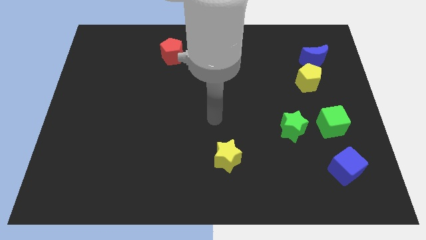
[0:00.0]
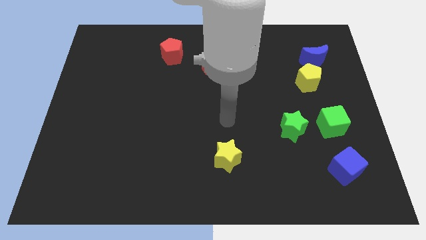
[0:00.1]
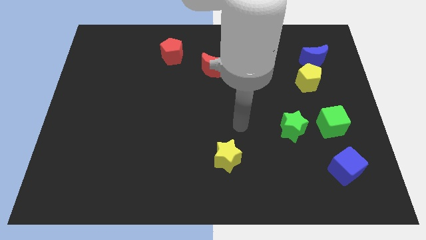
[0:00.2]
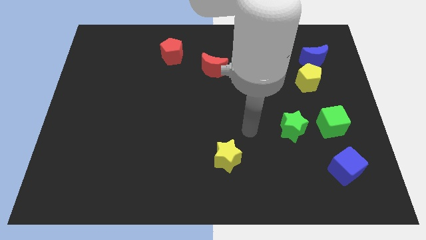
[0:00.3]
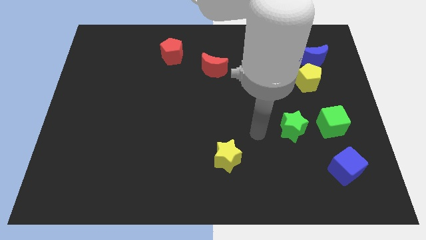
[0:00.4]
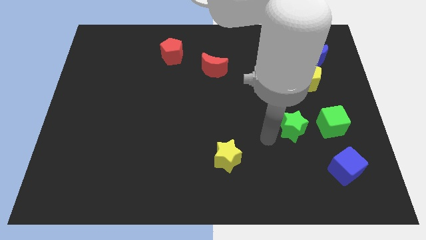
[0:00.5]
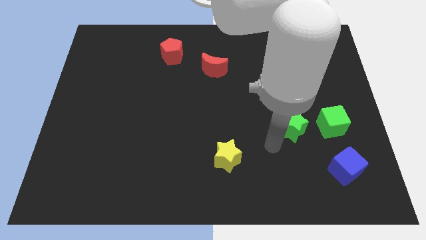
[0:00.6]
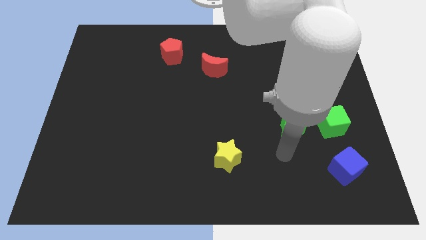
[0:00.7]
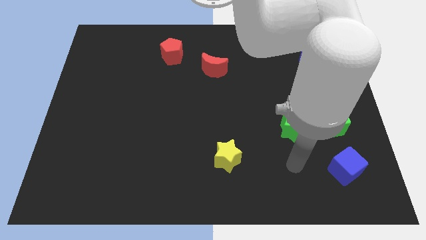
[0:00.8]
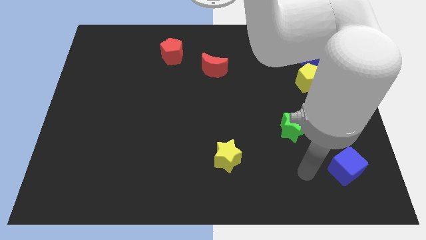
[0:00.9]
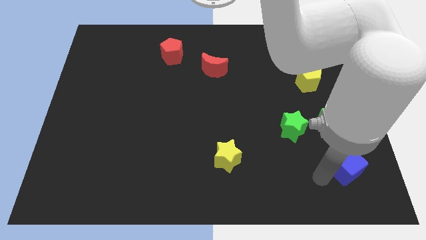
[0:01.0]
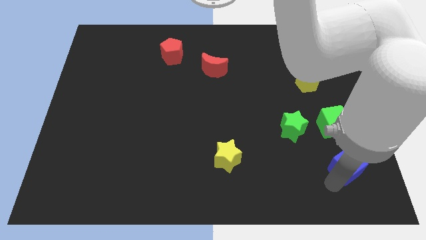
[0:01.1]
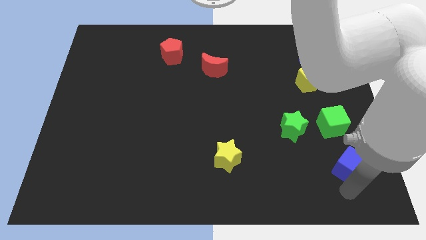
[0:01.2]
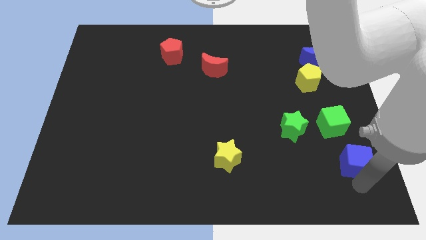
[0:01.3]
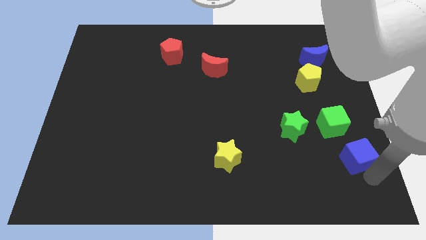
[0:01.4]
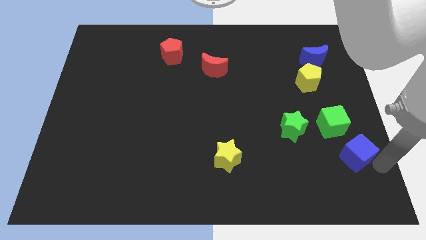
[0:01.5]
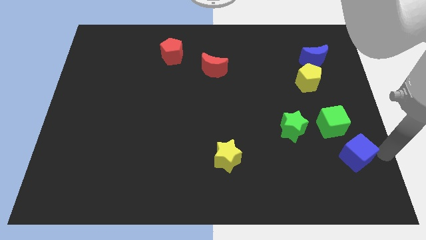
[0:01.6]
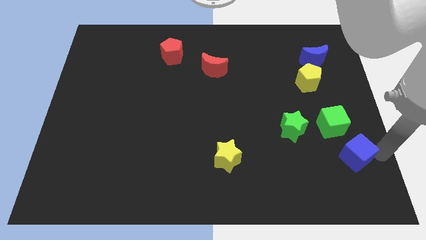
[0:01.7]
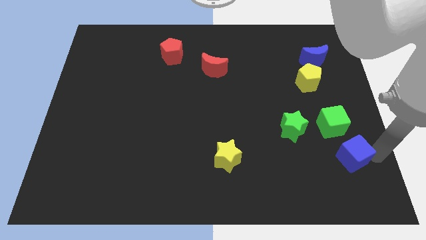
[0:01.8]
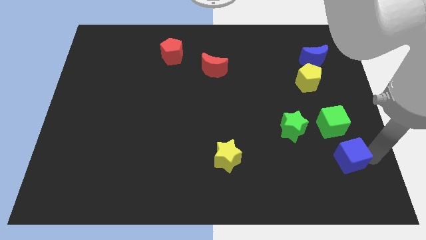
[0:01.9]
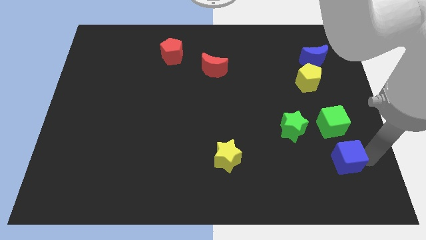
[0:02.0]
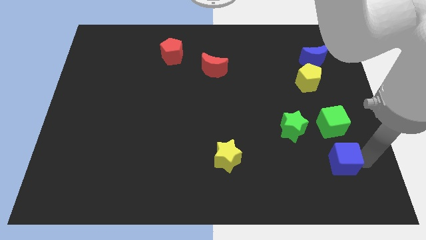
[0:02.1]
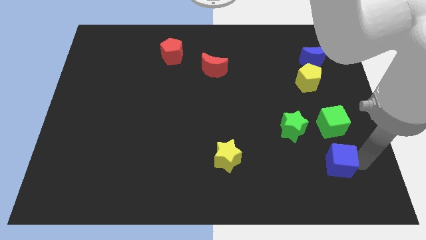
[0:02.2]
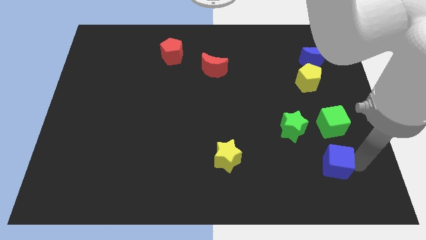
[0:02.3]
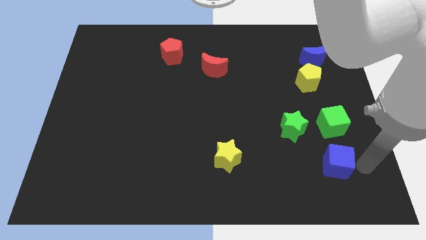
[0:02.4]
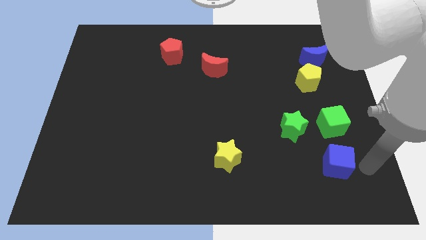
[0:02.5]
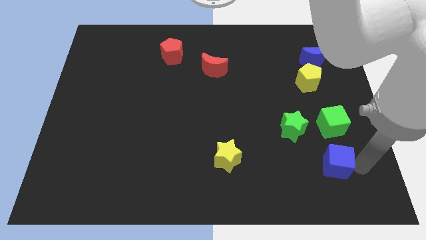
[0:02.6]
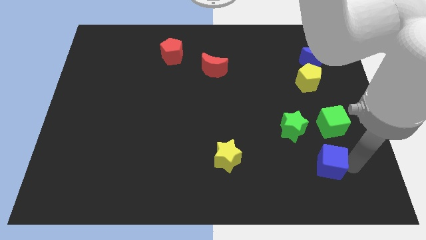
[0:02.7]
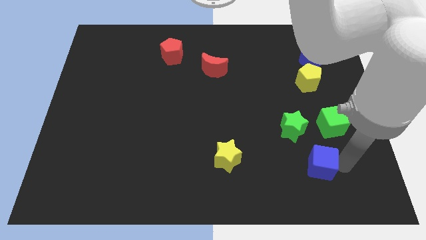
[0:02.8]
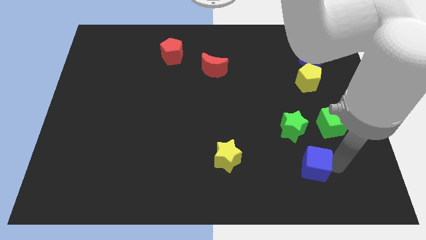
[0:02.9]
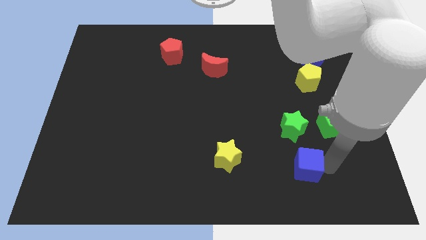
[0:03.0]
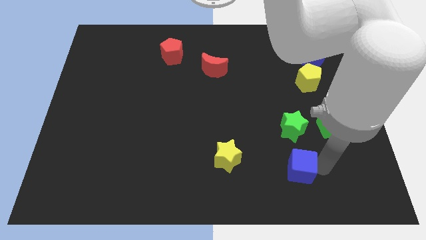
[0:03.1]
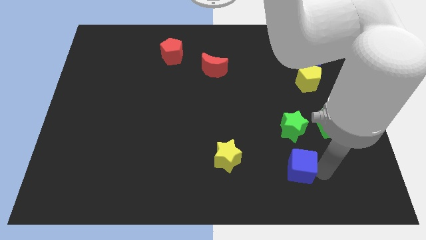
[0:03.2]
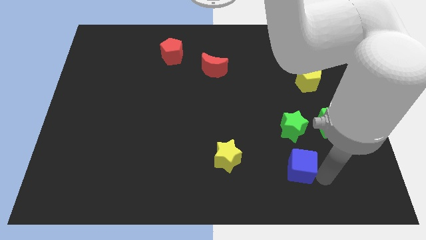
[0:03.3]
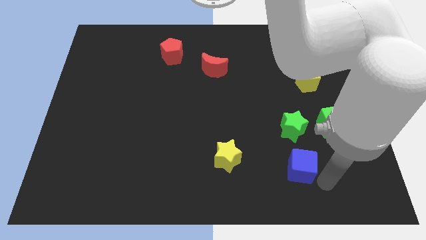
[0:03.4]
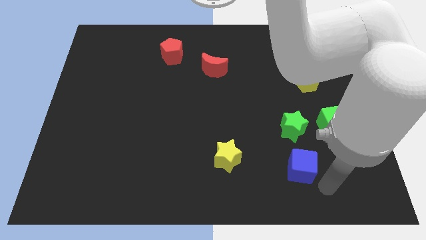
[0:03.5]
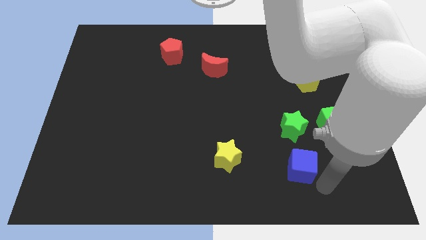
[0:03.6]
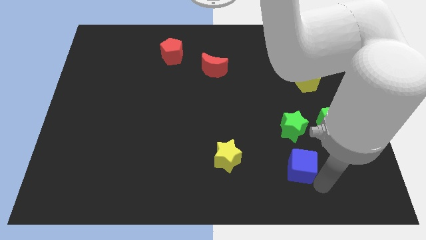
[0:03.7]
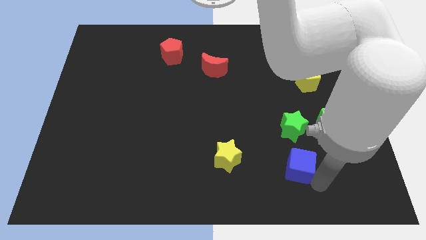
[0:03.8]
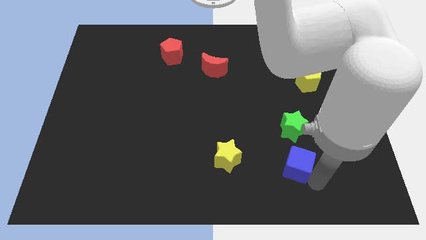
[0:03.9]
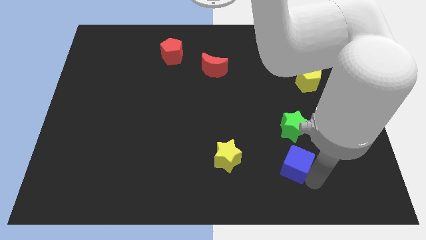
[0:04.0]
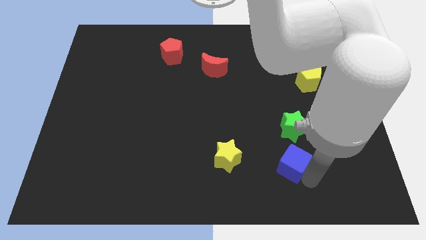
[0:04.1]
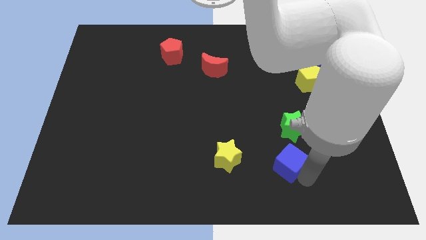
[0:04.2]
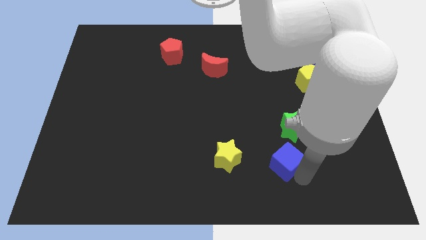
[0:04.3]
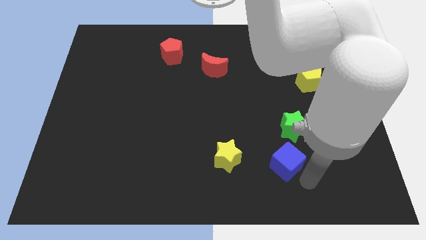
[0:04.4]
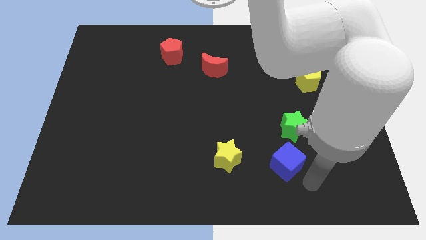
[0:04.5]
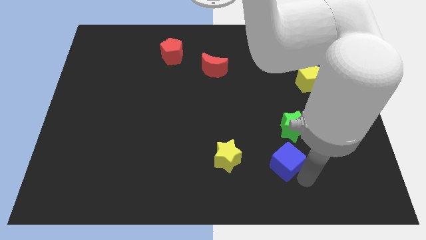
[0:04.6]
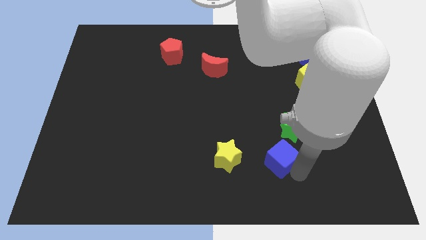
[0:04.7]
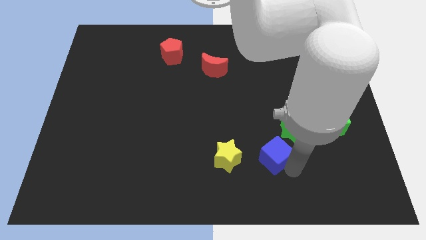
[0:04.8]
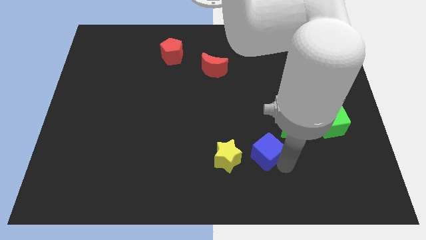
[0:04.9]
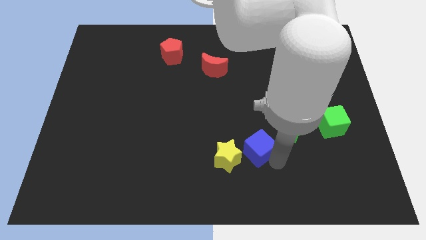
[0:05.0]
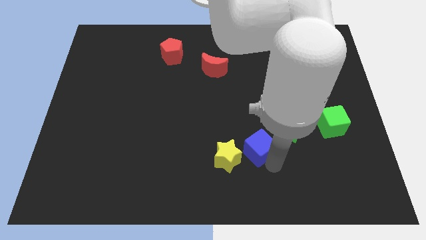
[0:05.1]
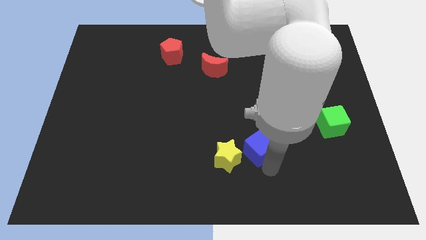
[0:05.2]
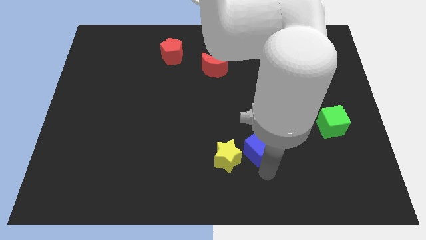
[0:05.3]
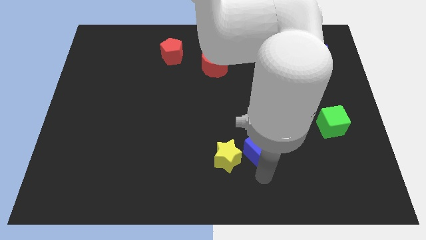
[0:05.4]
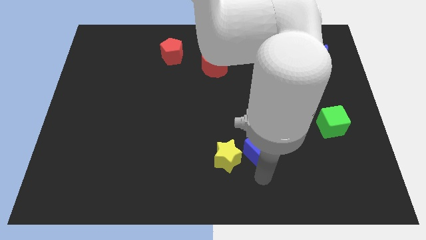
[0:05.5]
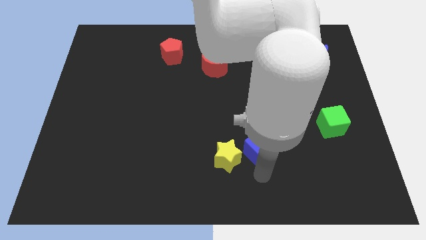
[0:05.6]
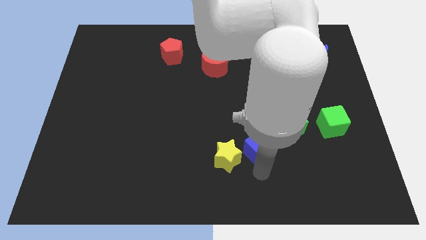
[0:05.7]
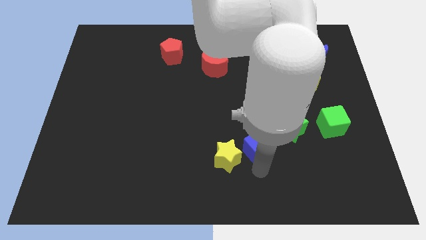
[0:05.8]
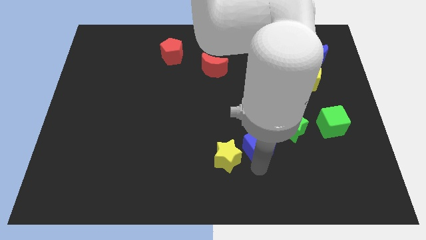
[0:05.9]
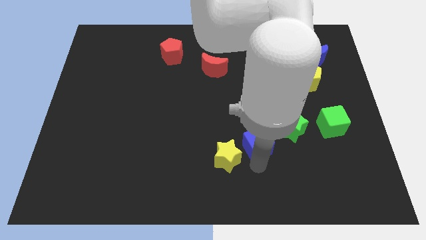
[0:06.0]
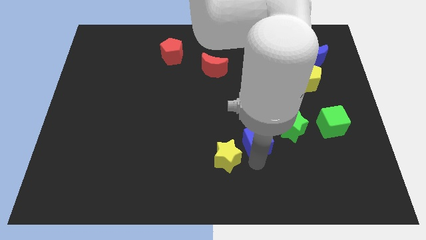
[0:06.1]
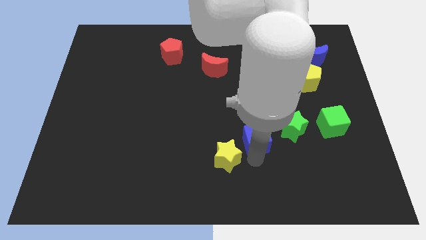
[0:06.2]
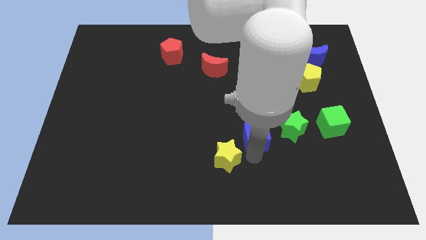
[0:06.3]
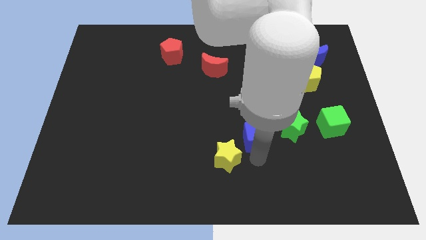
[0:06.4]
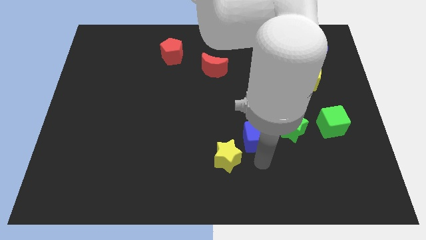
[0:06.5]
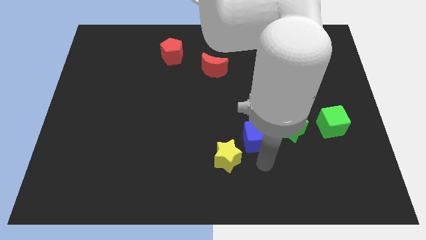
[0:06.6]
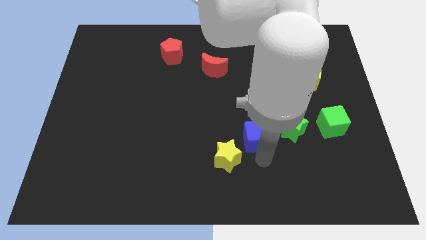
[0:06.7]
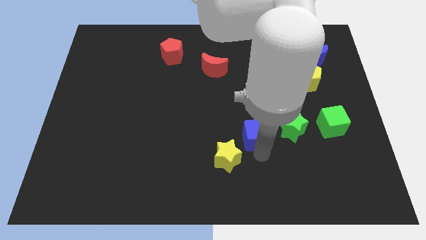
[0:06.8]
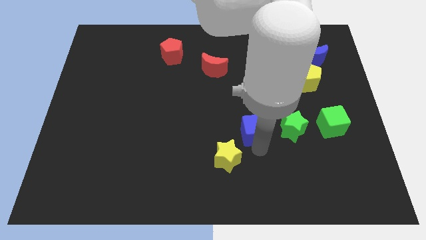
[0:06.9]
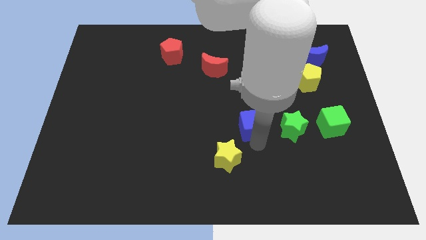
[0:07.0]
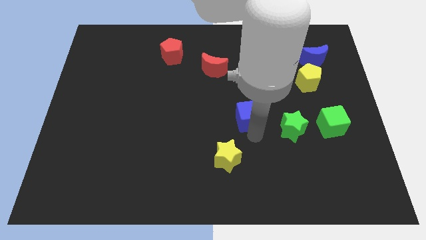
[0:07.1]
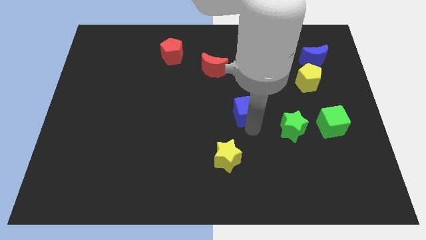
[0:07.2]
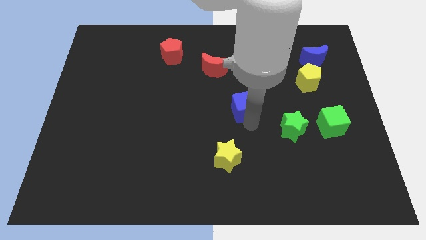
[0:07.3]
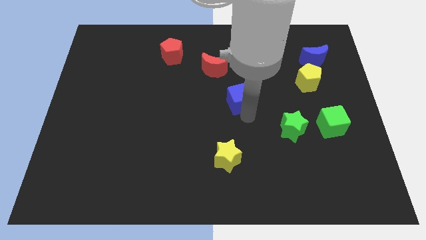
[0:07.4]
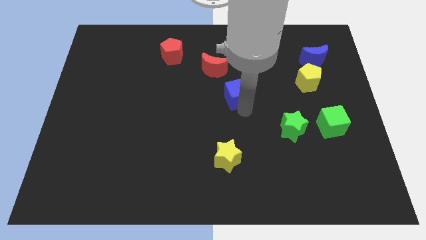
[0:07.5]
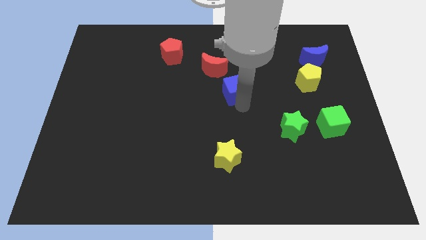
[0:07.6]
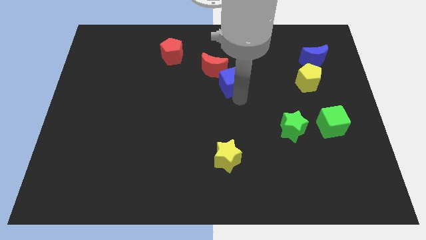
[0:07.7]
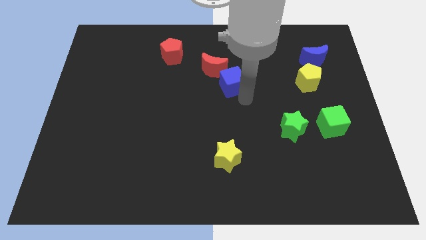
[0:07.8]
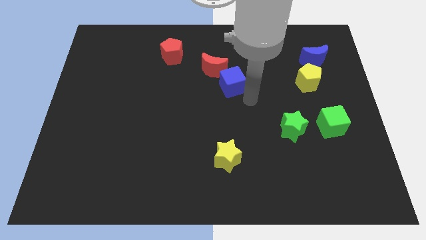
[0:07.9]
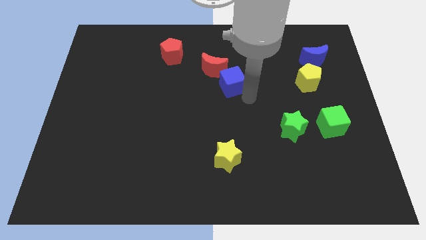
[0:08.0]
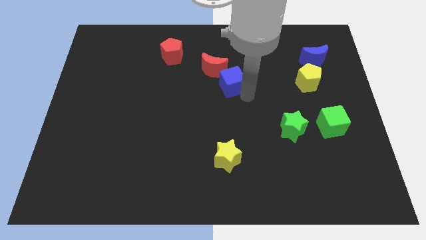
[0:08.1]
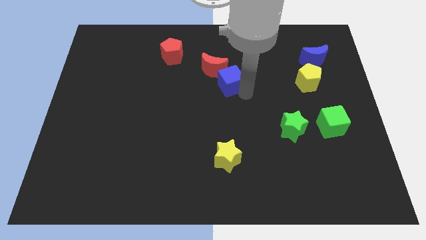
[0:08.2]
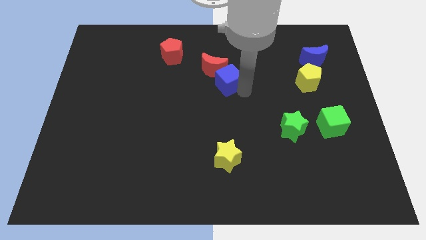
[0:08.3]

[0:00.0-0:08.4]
put the blue cube next to the red moon
